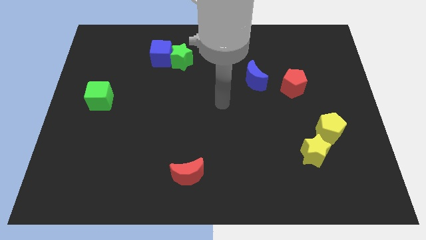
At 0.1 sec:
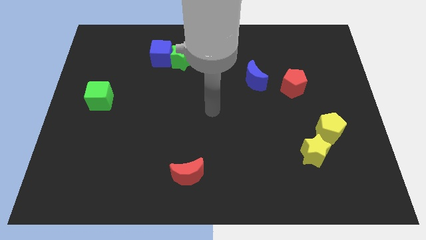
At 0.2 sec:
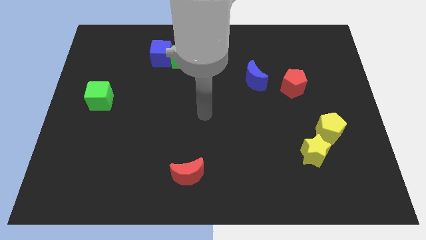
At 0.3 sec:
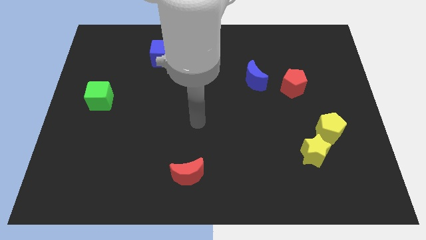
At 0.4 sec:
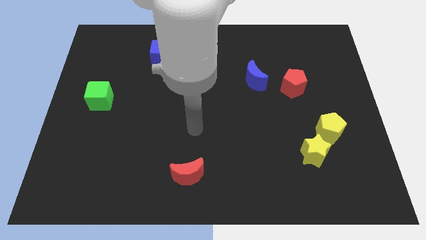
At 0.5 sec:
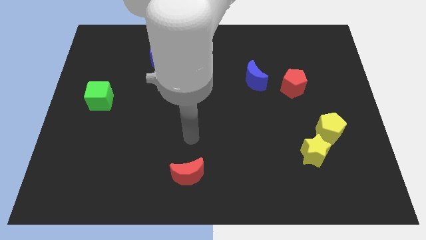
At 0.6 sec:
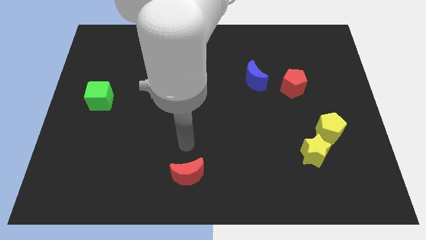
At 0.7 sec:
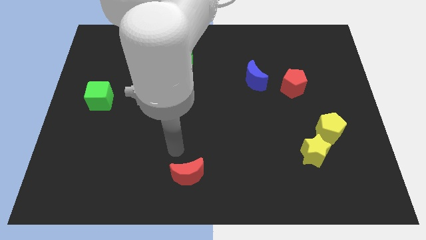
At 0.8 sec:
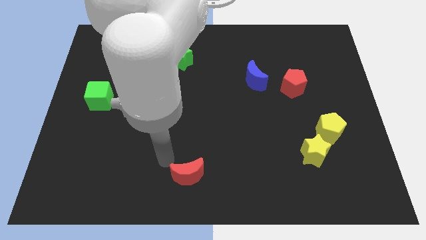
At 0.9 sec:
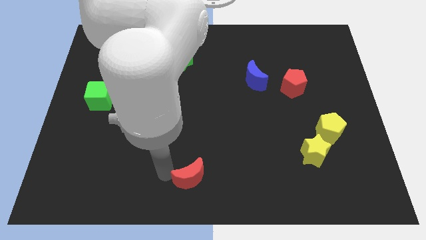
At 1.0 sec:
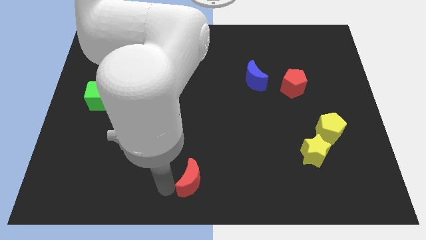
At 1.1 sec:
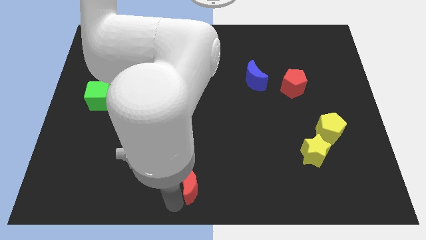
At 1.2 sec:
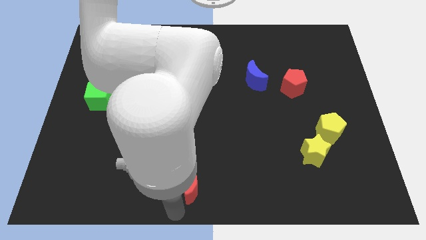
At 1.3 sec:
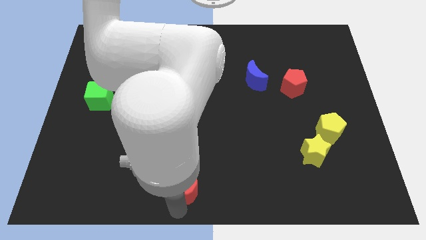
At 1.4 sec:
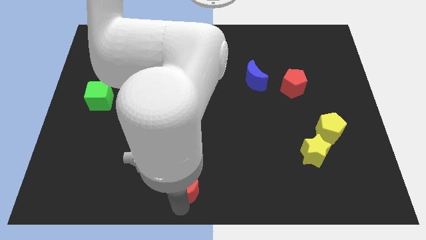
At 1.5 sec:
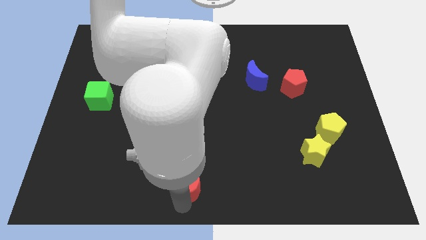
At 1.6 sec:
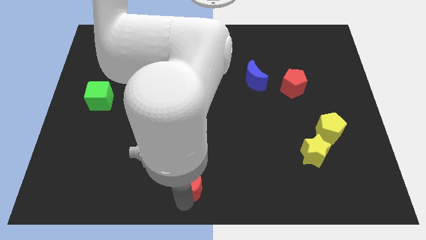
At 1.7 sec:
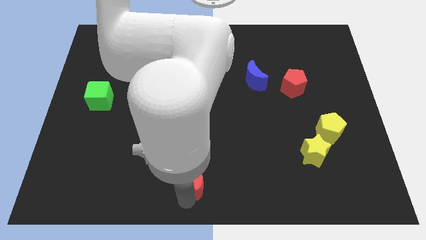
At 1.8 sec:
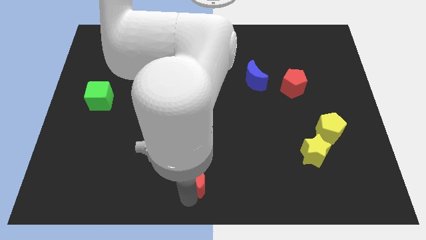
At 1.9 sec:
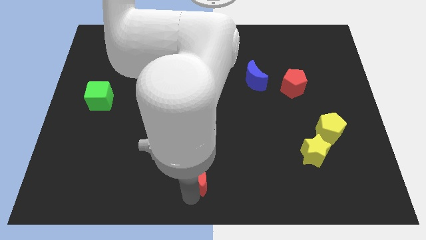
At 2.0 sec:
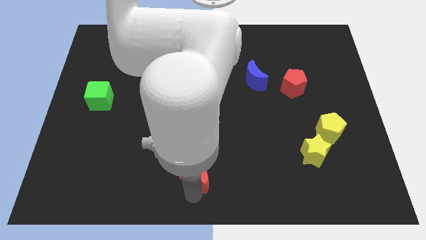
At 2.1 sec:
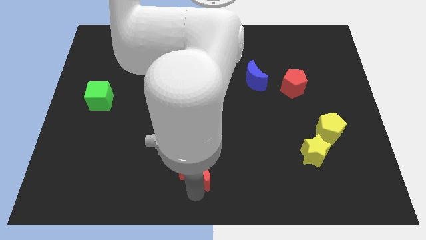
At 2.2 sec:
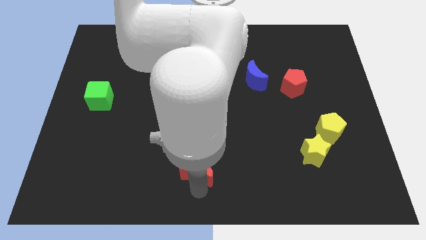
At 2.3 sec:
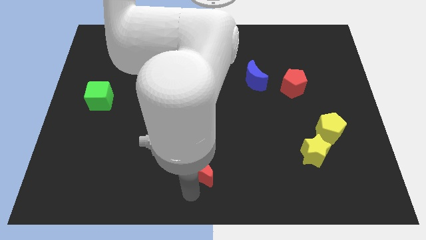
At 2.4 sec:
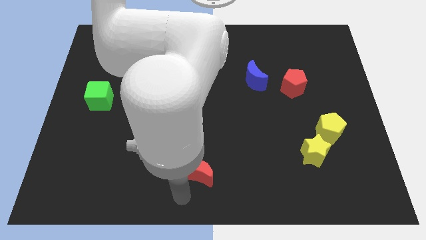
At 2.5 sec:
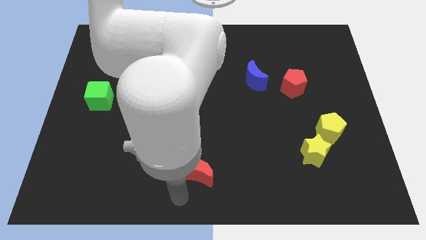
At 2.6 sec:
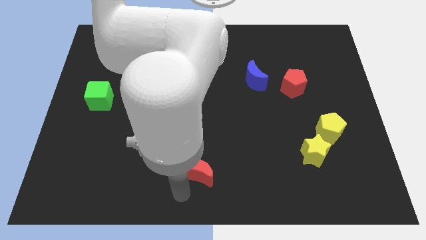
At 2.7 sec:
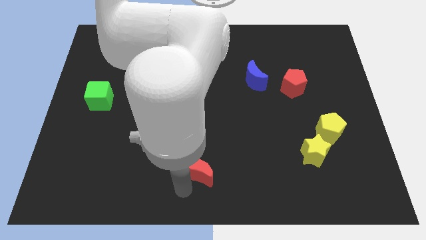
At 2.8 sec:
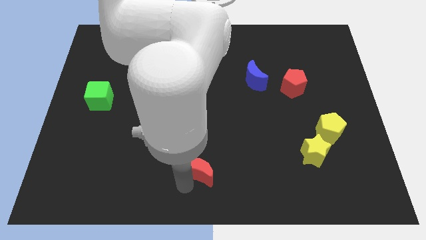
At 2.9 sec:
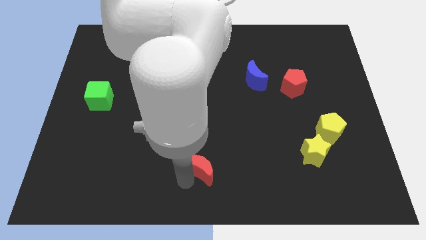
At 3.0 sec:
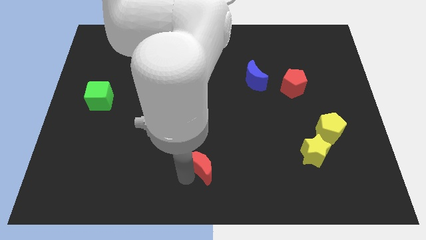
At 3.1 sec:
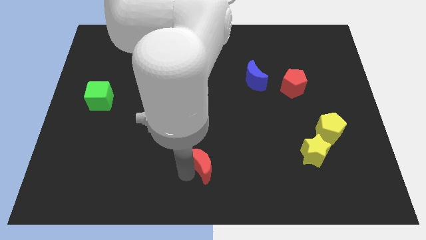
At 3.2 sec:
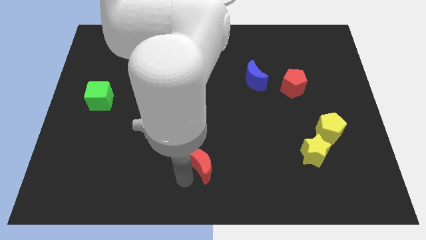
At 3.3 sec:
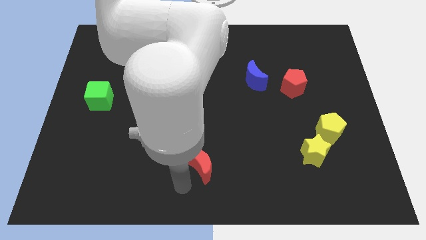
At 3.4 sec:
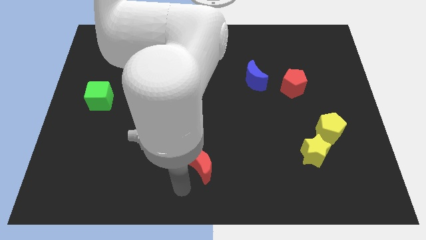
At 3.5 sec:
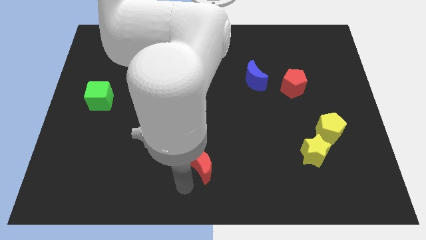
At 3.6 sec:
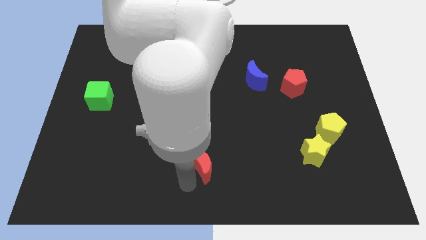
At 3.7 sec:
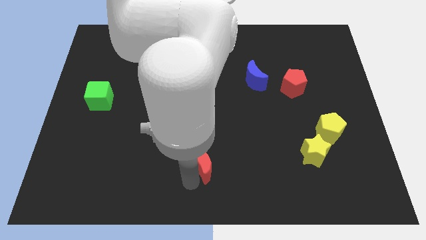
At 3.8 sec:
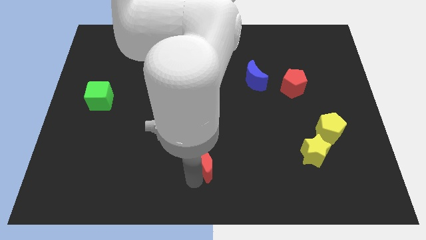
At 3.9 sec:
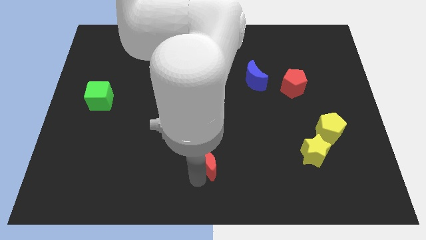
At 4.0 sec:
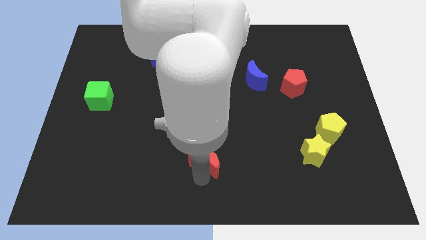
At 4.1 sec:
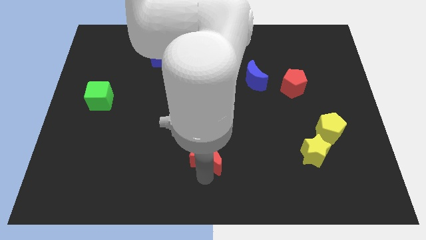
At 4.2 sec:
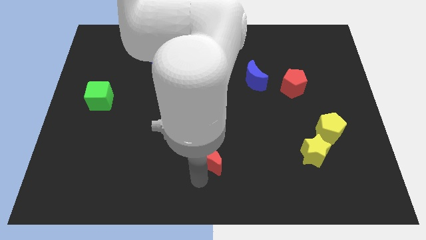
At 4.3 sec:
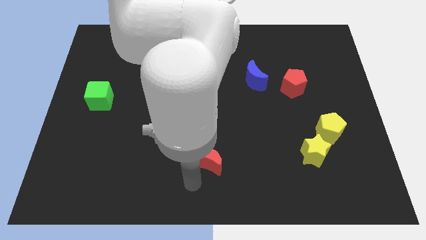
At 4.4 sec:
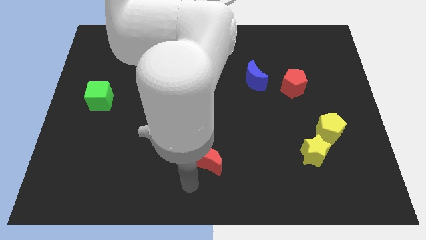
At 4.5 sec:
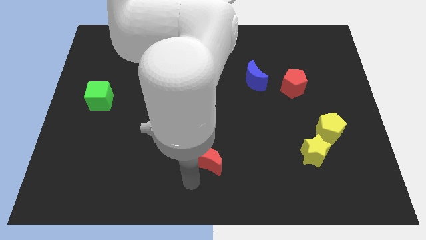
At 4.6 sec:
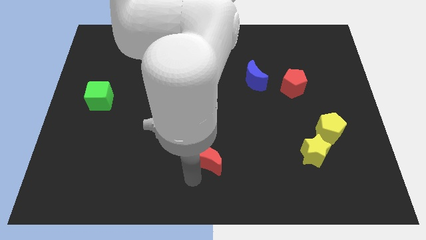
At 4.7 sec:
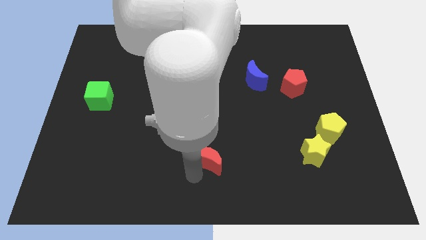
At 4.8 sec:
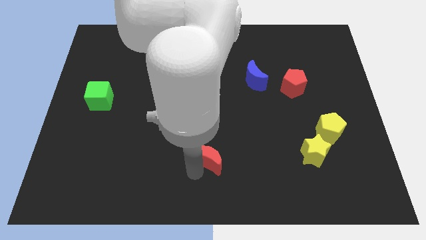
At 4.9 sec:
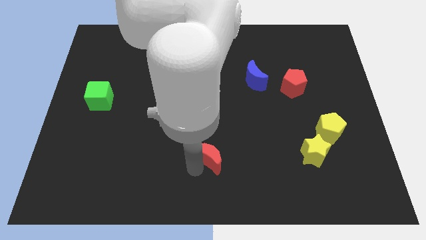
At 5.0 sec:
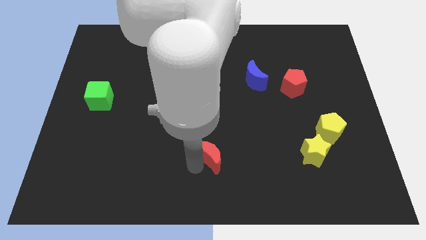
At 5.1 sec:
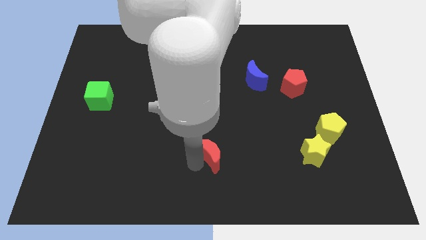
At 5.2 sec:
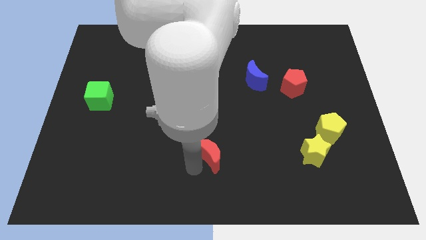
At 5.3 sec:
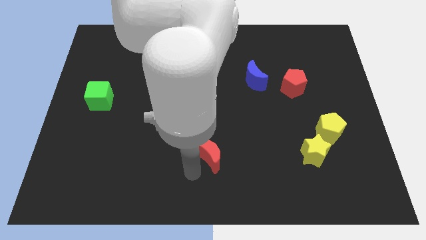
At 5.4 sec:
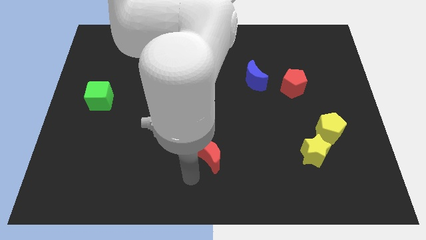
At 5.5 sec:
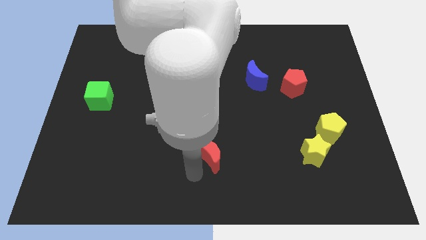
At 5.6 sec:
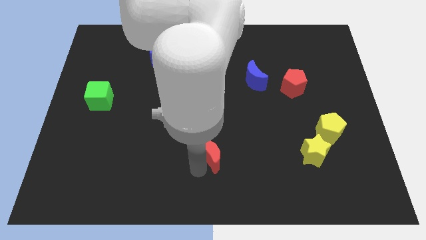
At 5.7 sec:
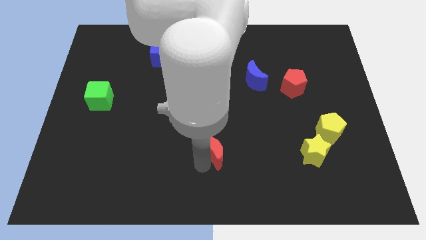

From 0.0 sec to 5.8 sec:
move the red moon a little up and right diagonally

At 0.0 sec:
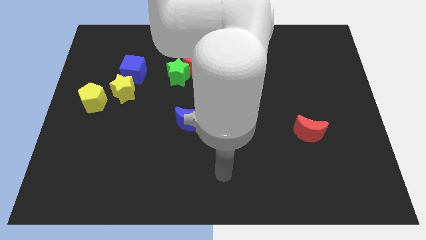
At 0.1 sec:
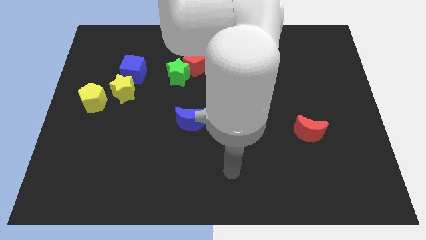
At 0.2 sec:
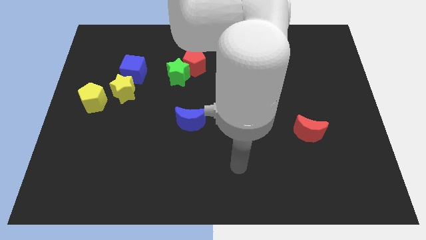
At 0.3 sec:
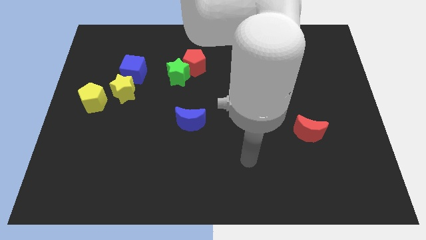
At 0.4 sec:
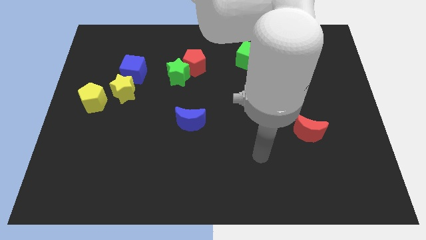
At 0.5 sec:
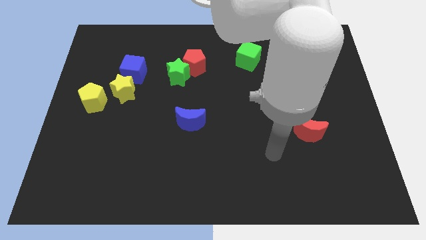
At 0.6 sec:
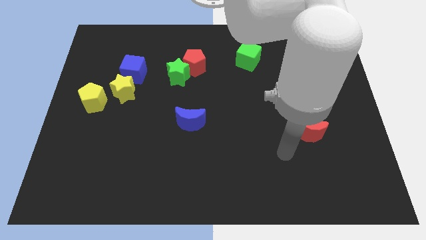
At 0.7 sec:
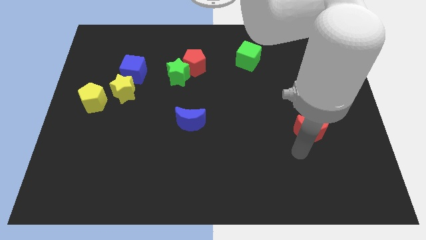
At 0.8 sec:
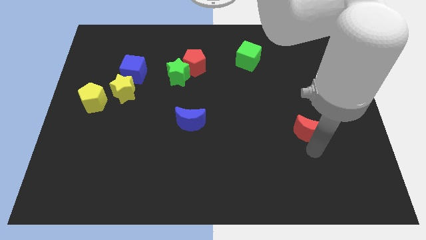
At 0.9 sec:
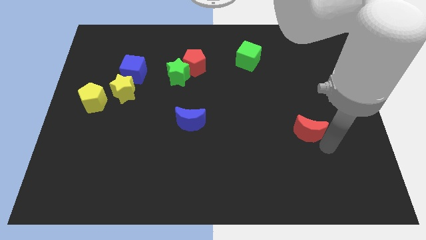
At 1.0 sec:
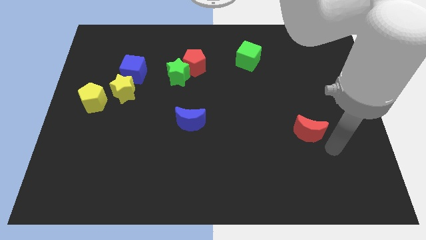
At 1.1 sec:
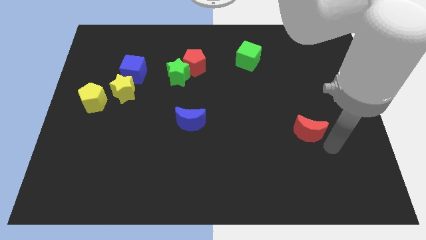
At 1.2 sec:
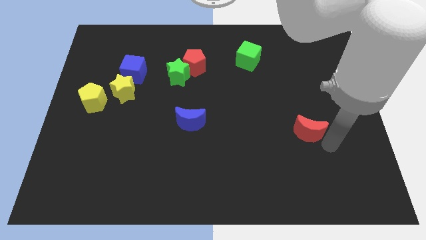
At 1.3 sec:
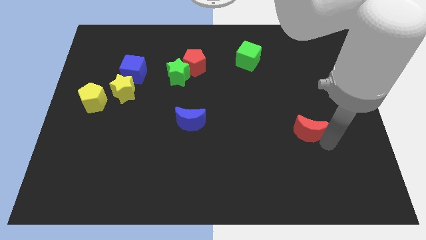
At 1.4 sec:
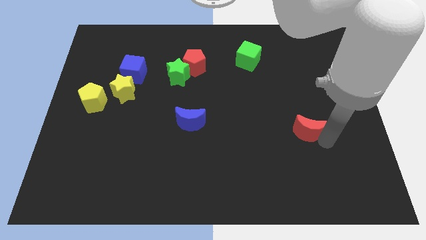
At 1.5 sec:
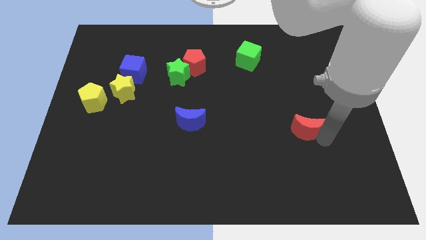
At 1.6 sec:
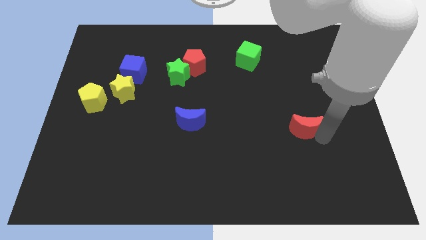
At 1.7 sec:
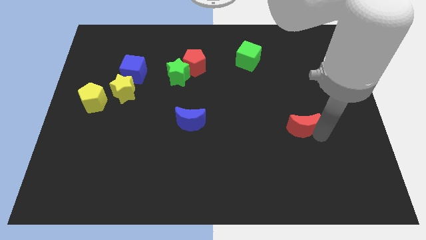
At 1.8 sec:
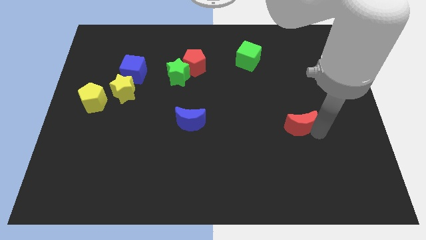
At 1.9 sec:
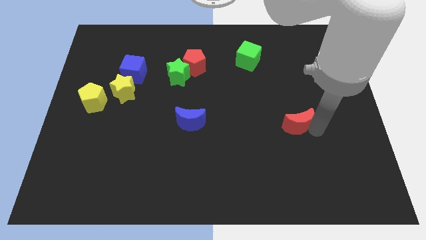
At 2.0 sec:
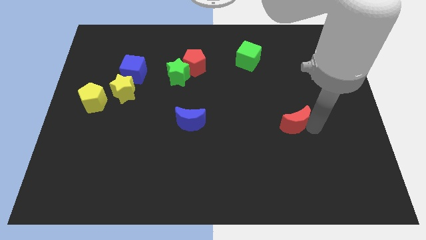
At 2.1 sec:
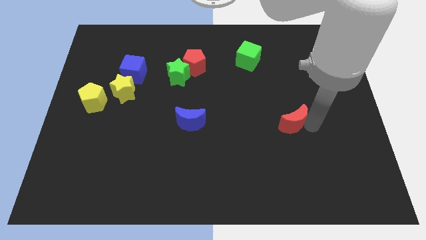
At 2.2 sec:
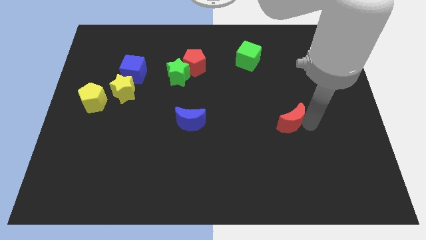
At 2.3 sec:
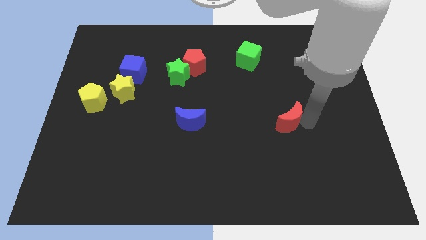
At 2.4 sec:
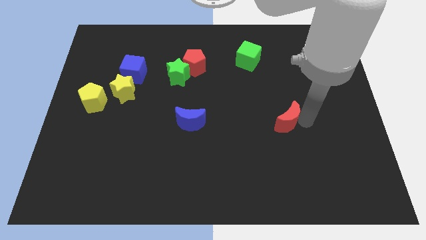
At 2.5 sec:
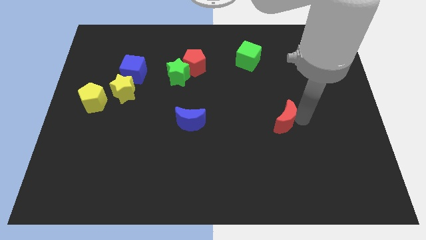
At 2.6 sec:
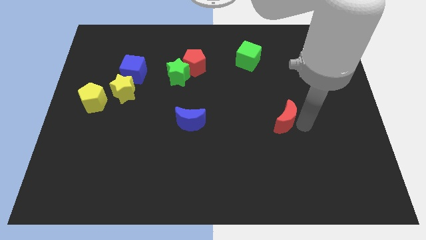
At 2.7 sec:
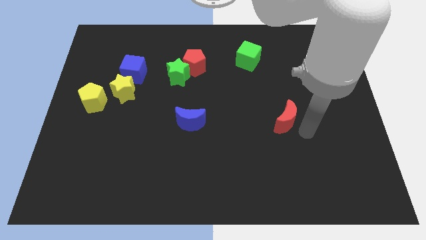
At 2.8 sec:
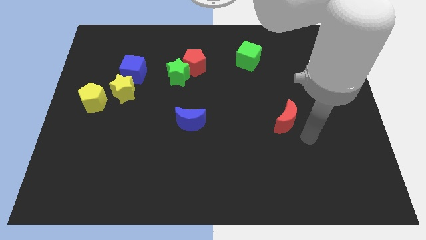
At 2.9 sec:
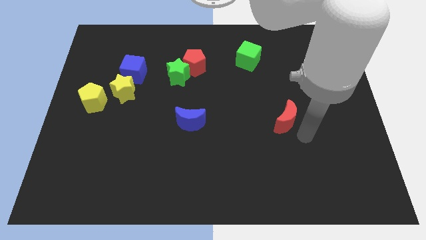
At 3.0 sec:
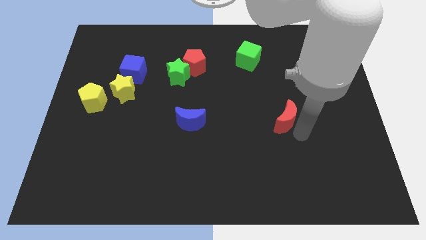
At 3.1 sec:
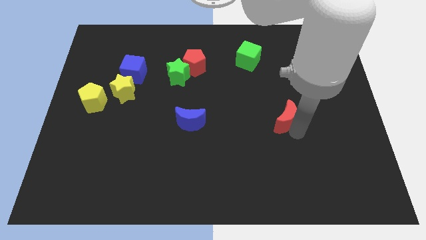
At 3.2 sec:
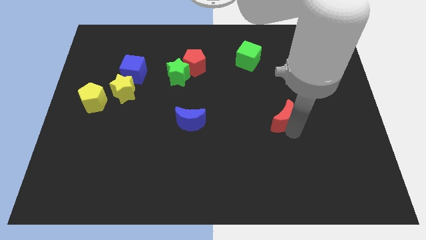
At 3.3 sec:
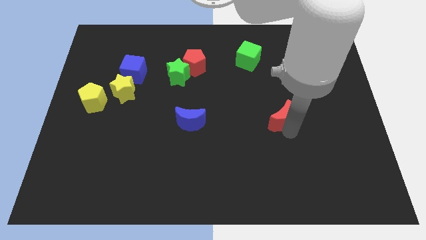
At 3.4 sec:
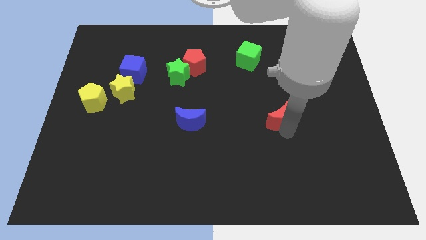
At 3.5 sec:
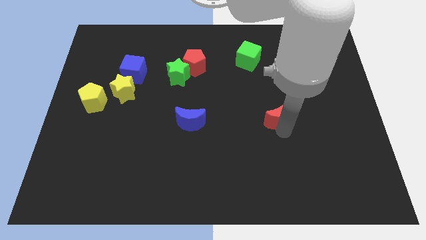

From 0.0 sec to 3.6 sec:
push the red moon a bit diagonally up and left
